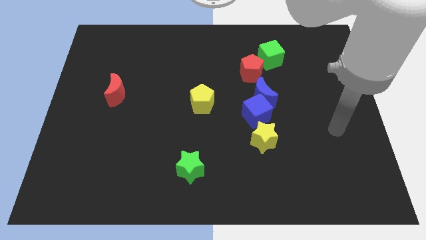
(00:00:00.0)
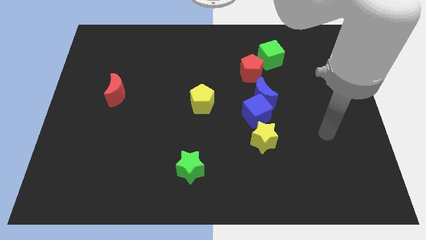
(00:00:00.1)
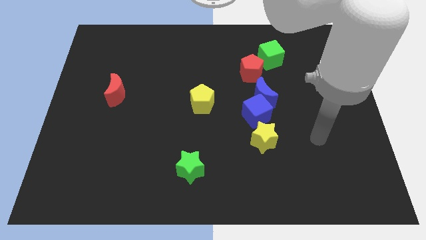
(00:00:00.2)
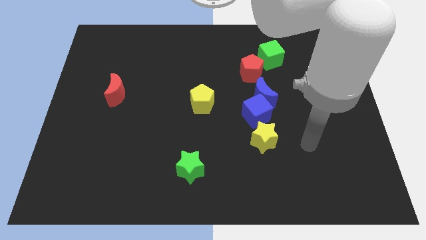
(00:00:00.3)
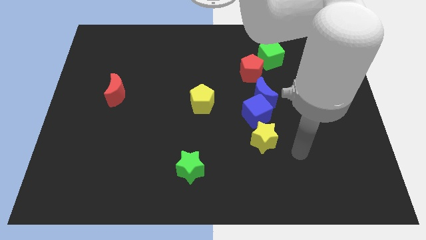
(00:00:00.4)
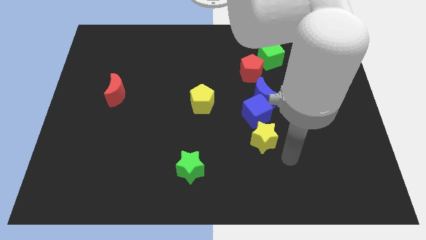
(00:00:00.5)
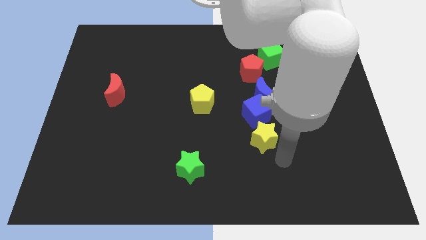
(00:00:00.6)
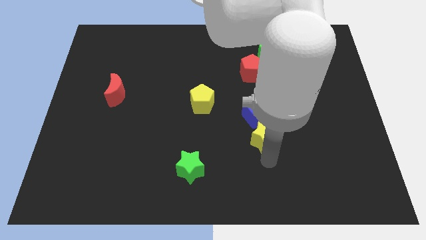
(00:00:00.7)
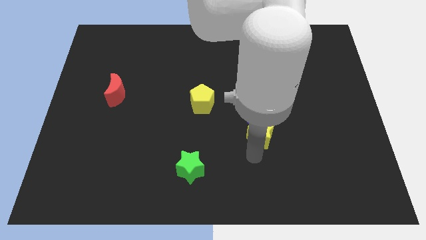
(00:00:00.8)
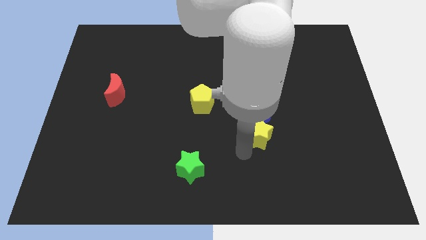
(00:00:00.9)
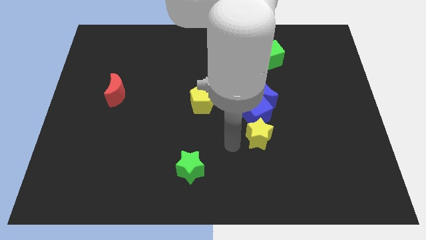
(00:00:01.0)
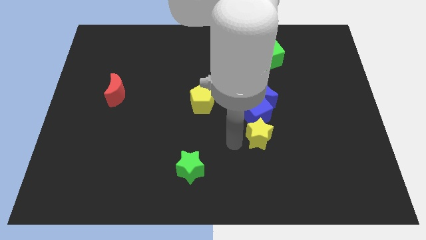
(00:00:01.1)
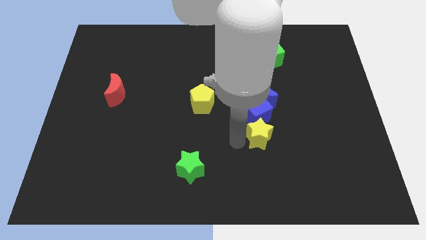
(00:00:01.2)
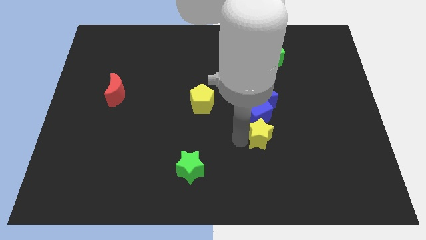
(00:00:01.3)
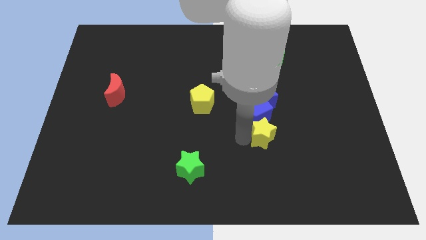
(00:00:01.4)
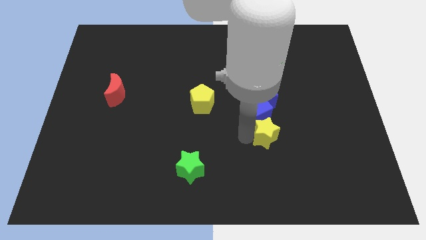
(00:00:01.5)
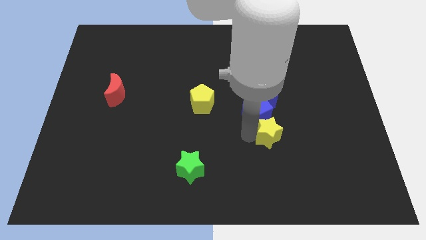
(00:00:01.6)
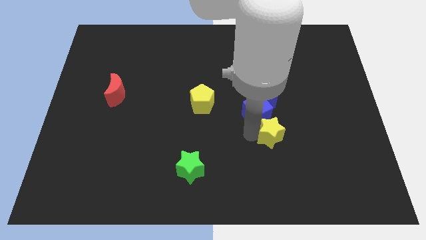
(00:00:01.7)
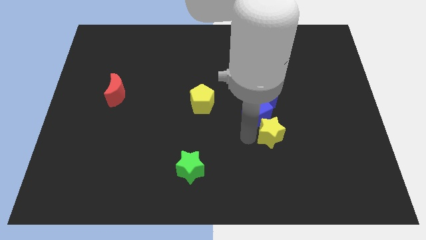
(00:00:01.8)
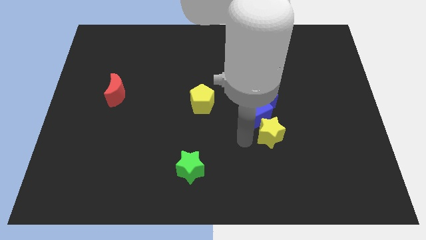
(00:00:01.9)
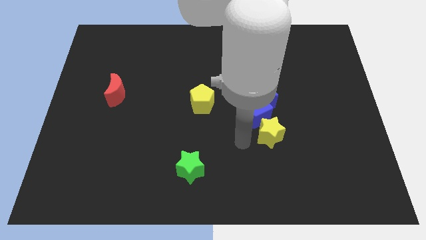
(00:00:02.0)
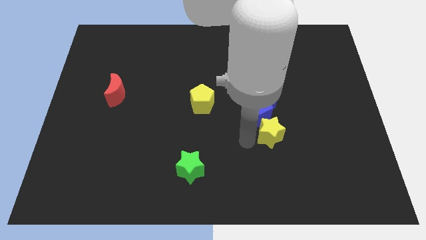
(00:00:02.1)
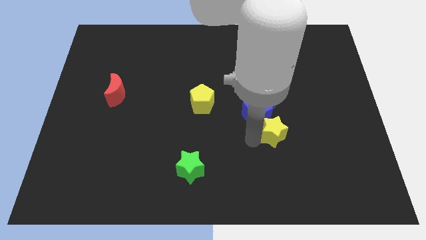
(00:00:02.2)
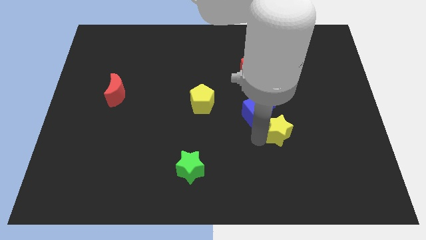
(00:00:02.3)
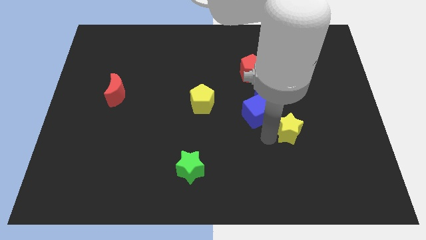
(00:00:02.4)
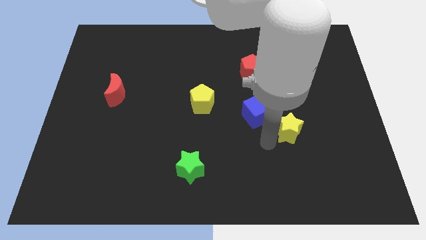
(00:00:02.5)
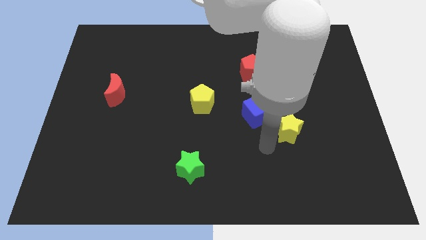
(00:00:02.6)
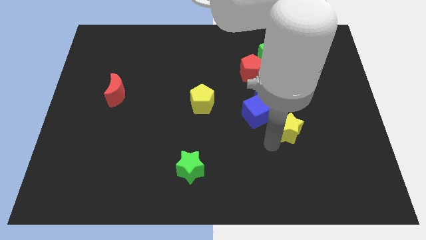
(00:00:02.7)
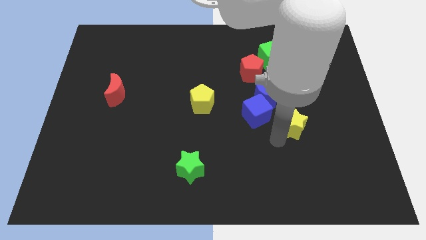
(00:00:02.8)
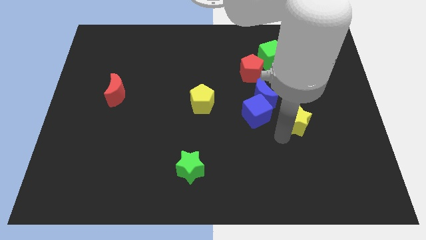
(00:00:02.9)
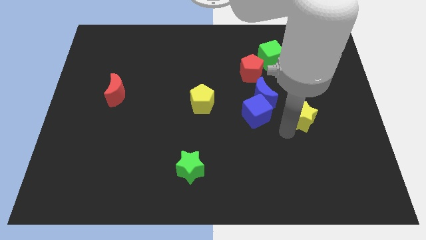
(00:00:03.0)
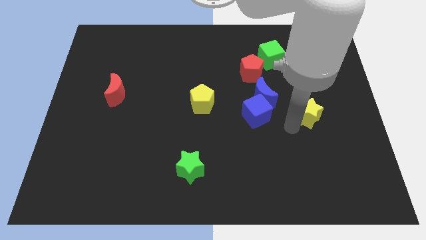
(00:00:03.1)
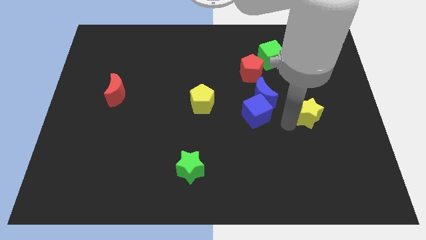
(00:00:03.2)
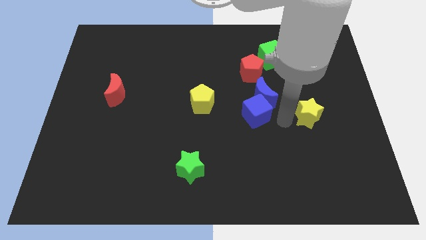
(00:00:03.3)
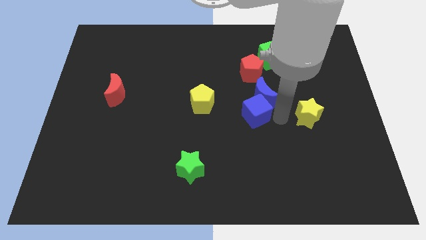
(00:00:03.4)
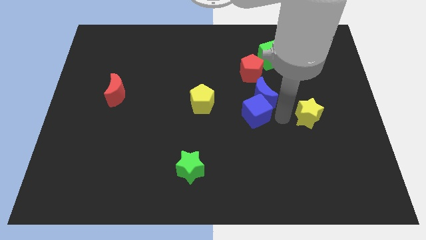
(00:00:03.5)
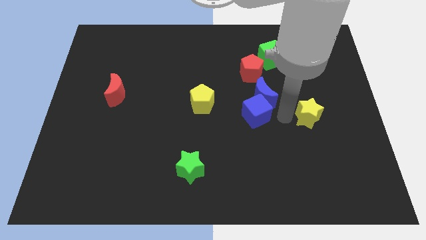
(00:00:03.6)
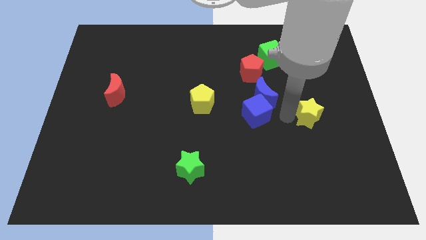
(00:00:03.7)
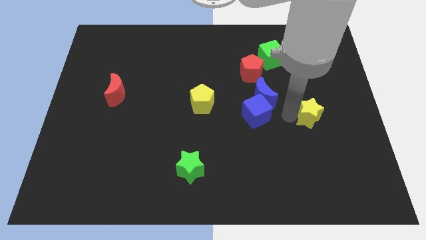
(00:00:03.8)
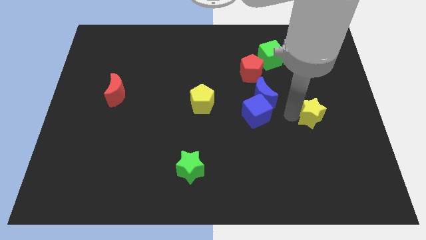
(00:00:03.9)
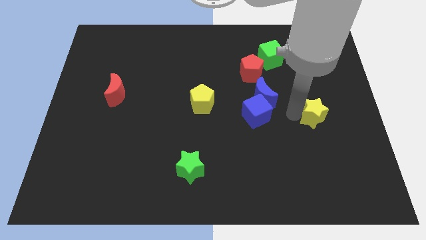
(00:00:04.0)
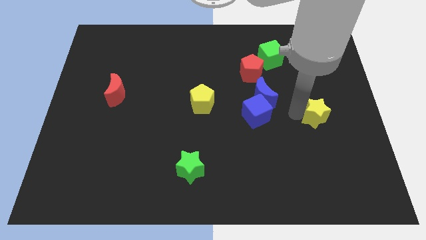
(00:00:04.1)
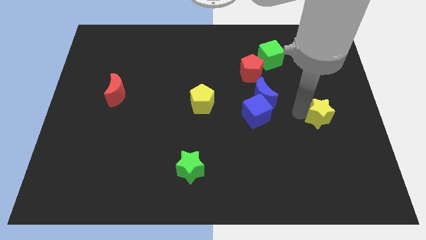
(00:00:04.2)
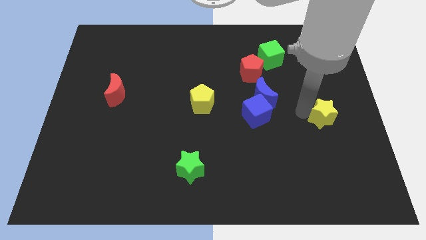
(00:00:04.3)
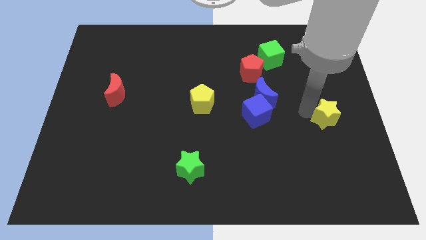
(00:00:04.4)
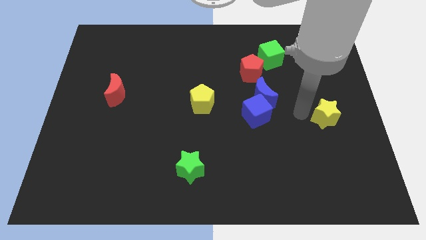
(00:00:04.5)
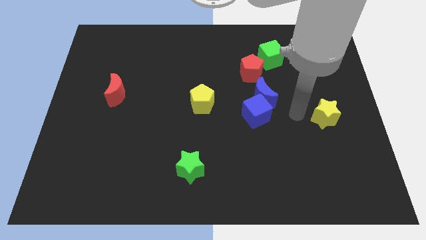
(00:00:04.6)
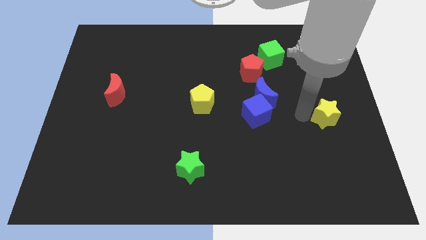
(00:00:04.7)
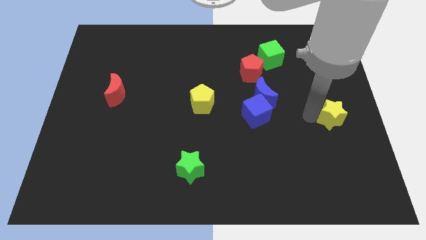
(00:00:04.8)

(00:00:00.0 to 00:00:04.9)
move the yellow star to the right side of the board

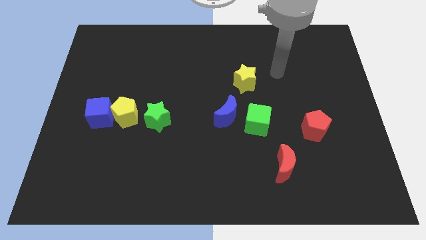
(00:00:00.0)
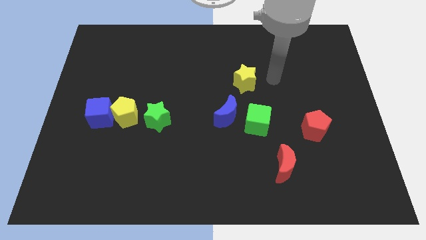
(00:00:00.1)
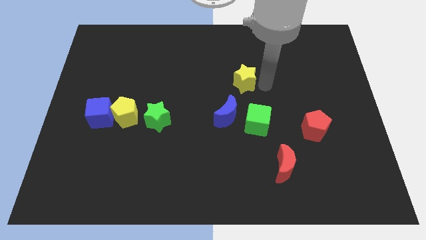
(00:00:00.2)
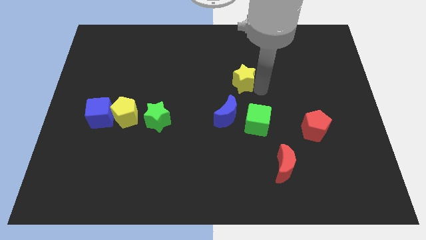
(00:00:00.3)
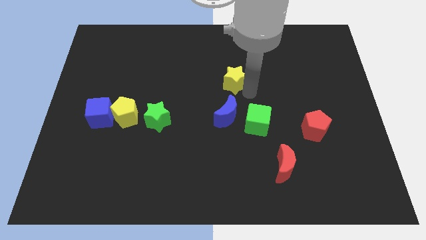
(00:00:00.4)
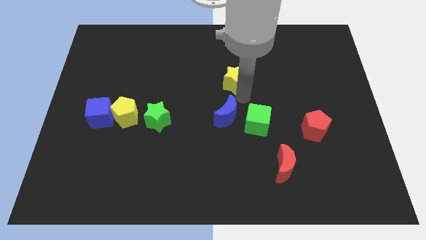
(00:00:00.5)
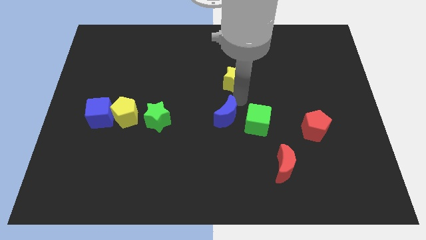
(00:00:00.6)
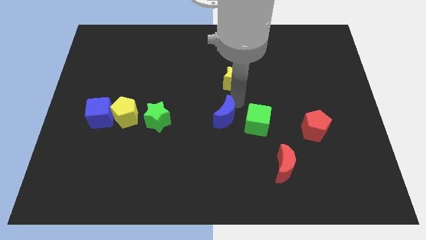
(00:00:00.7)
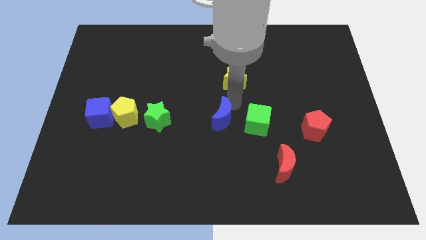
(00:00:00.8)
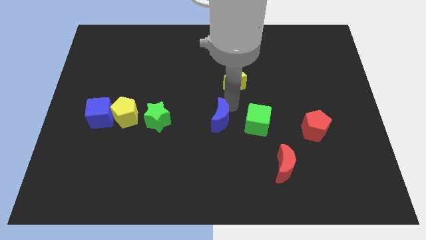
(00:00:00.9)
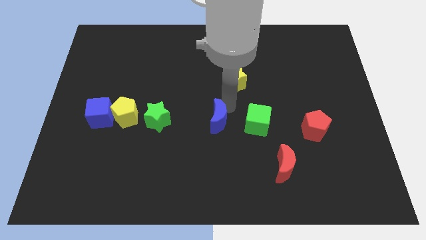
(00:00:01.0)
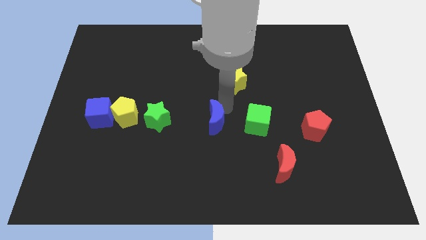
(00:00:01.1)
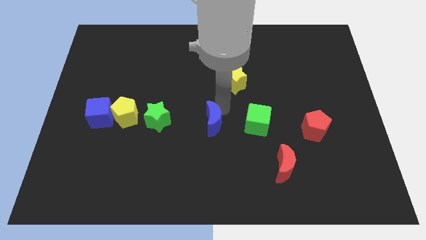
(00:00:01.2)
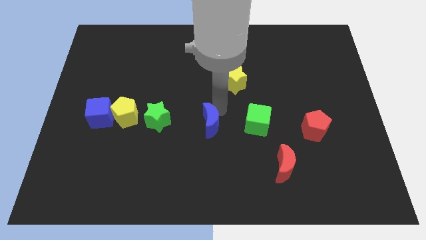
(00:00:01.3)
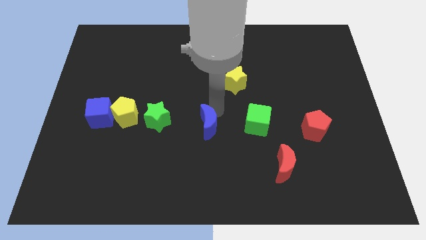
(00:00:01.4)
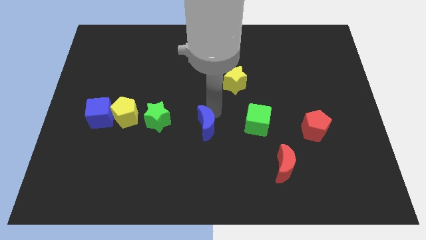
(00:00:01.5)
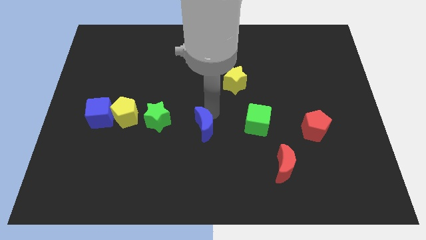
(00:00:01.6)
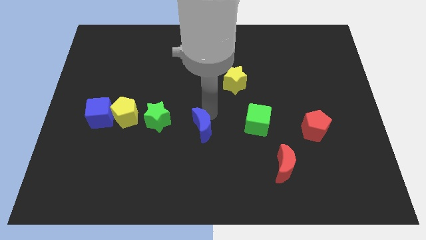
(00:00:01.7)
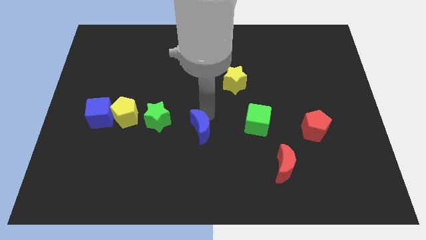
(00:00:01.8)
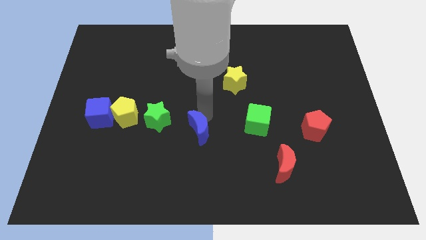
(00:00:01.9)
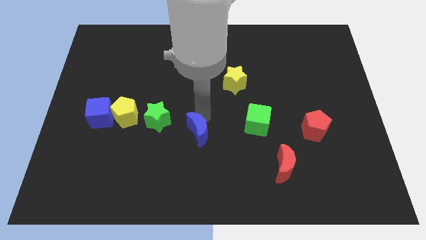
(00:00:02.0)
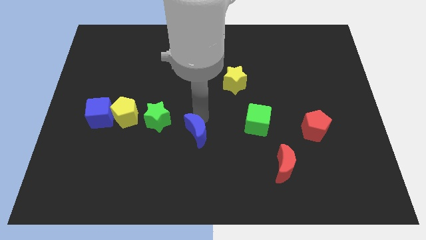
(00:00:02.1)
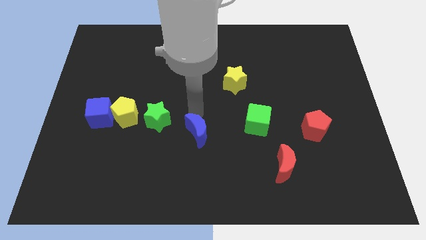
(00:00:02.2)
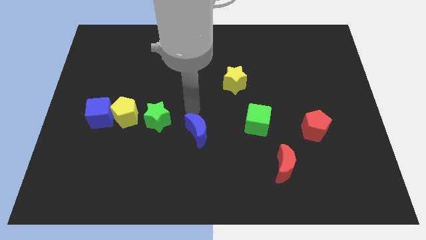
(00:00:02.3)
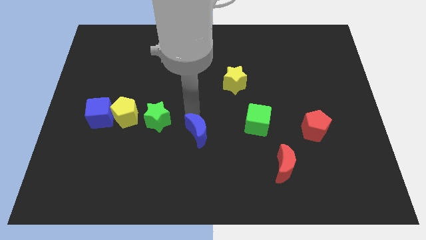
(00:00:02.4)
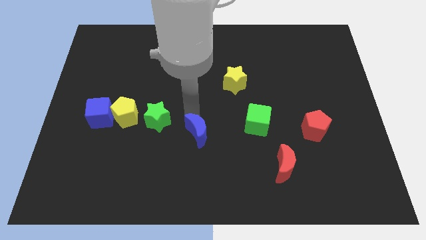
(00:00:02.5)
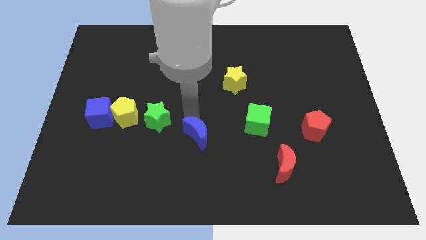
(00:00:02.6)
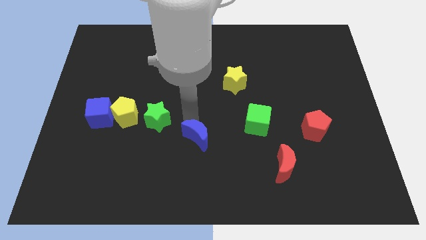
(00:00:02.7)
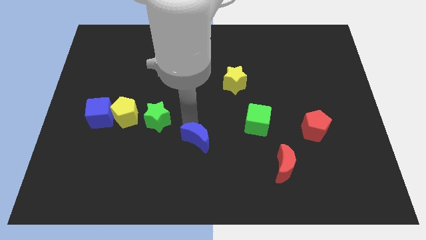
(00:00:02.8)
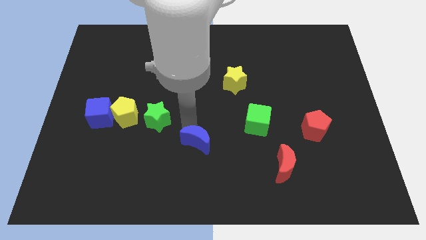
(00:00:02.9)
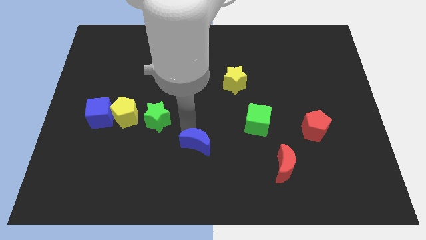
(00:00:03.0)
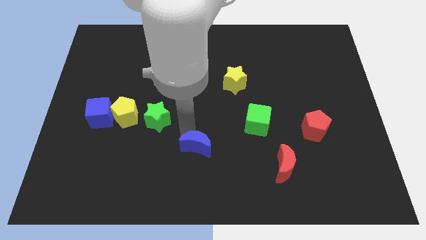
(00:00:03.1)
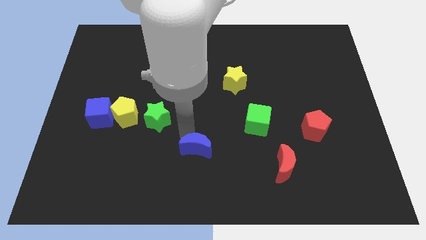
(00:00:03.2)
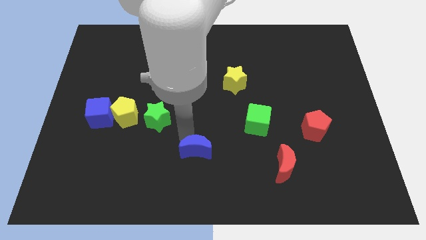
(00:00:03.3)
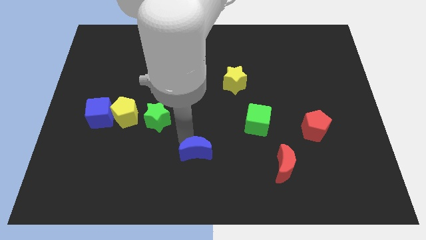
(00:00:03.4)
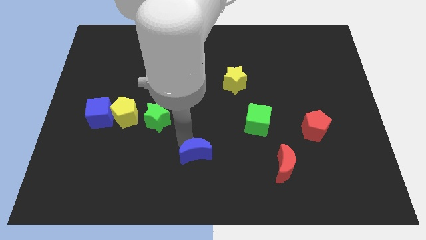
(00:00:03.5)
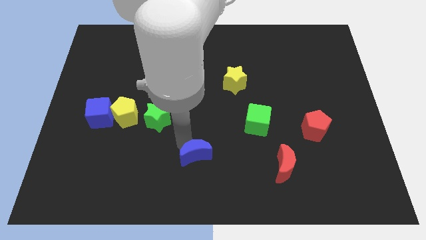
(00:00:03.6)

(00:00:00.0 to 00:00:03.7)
move the blue moon to the bottom side
